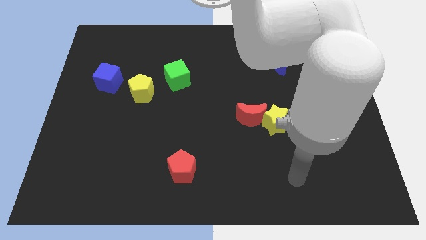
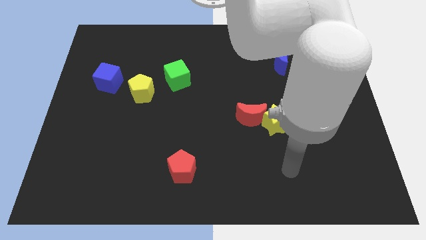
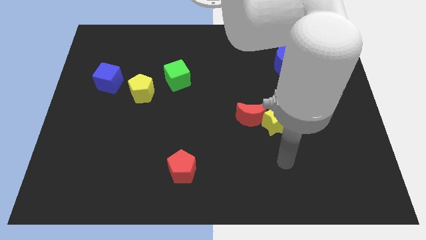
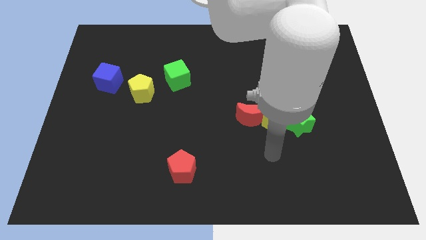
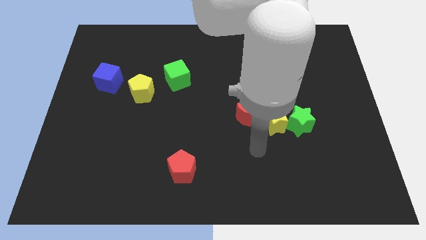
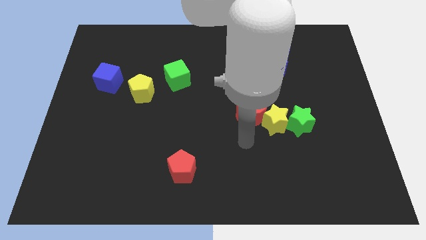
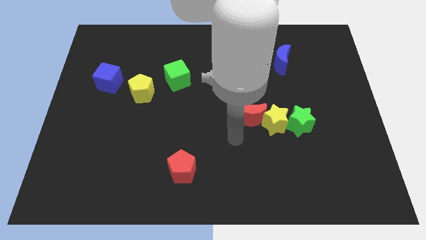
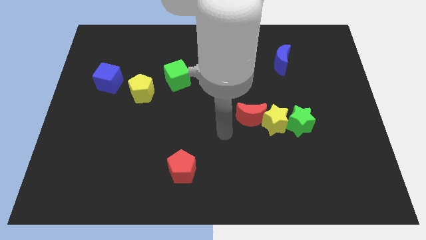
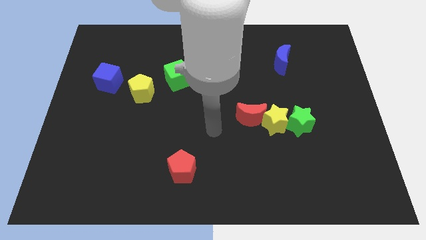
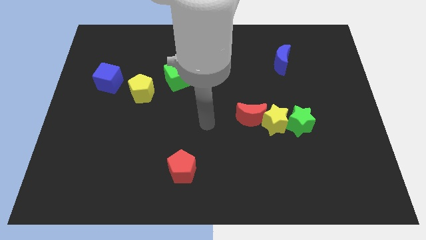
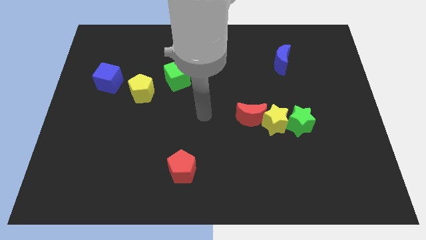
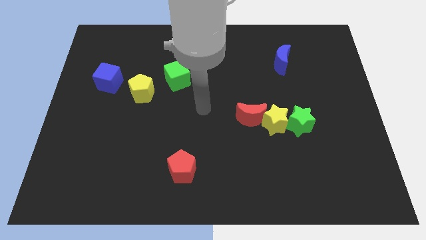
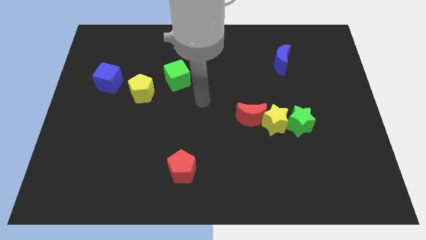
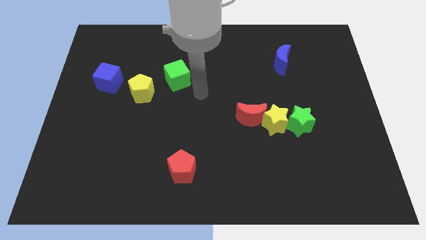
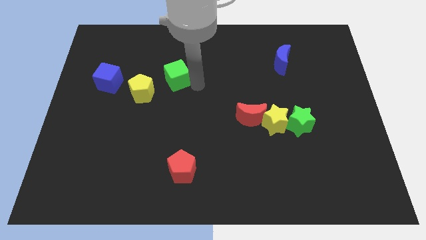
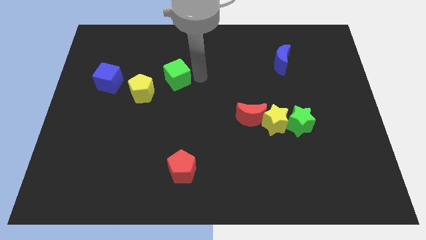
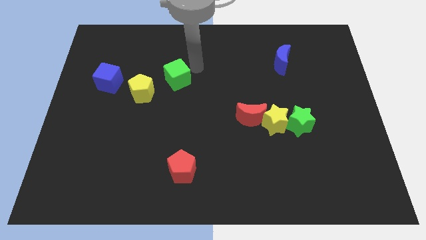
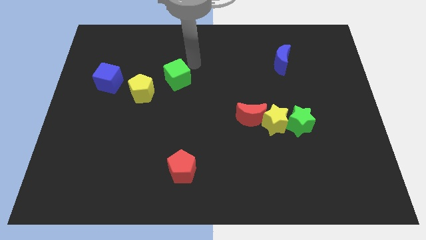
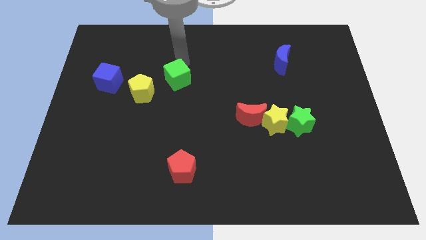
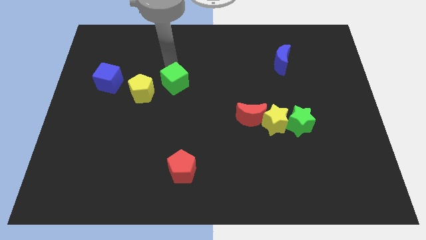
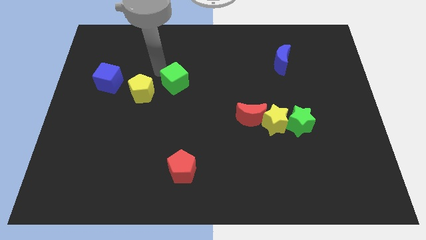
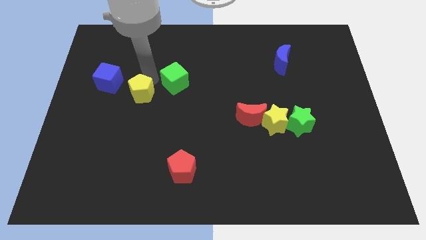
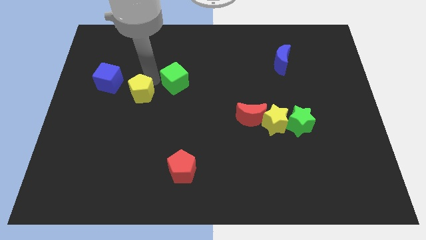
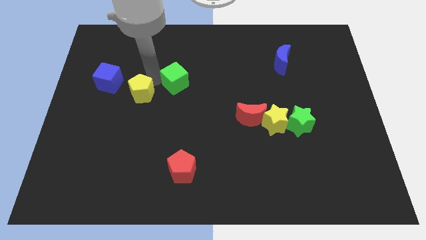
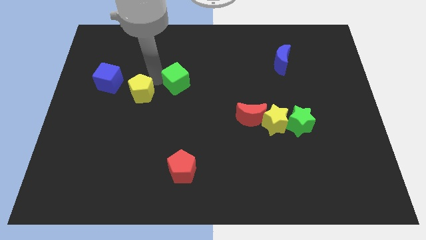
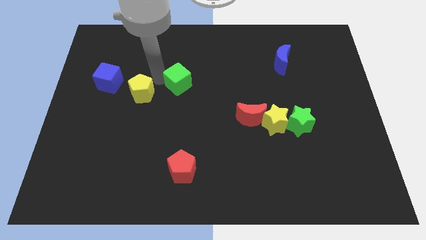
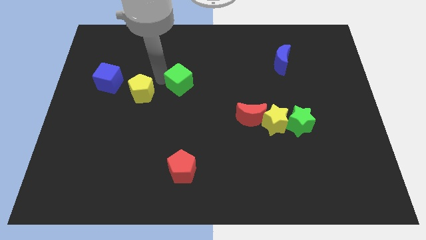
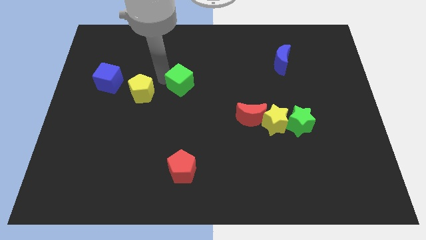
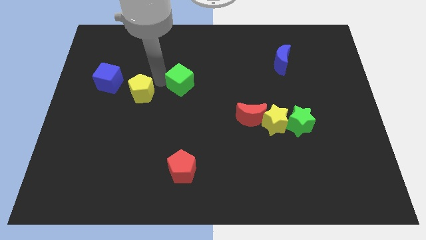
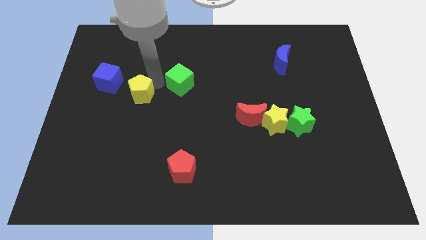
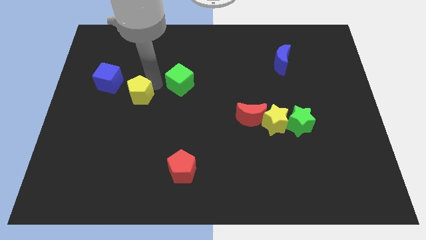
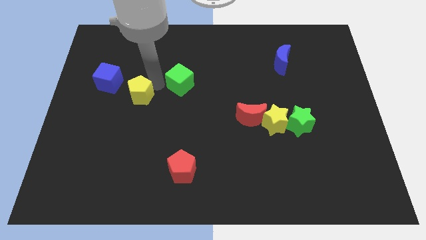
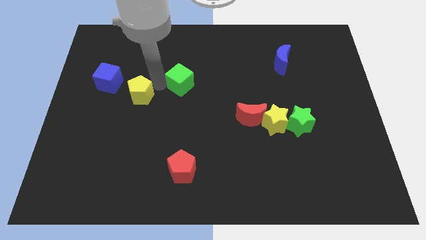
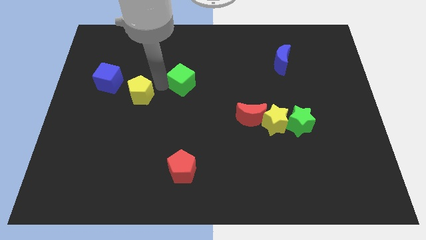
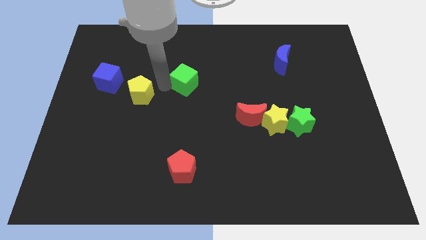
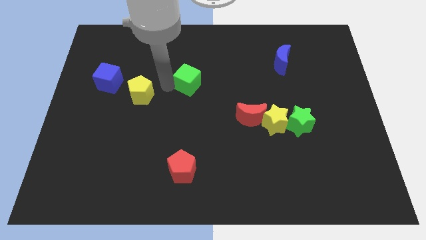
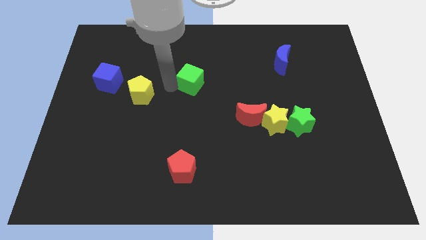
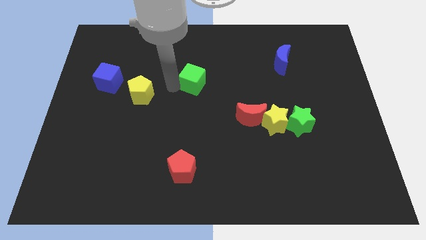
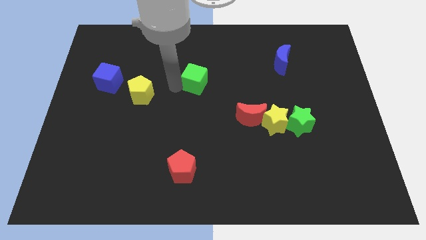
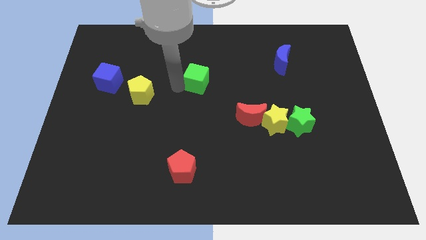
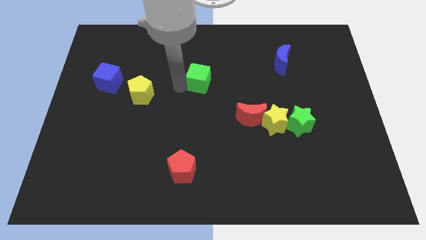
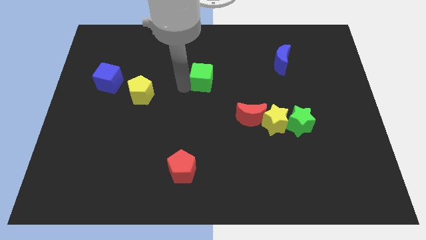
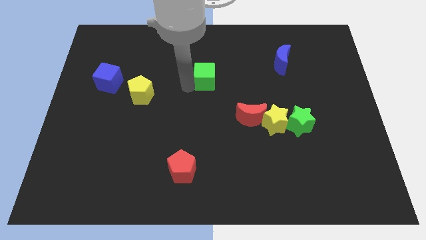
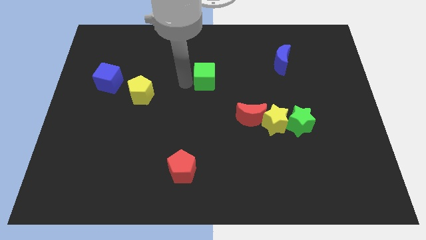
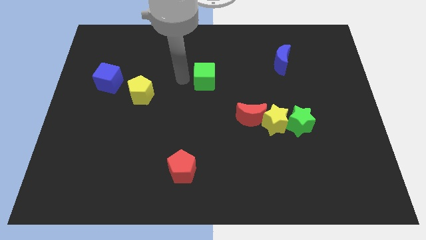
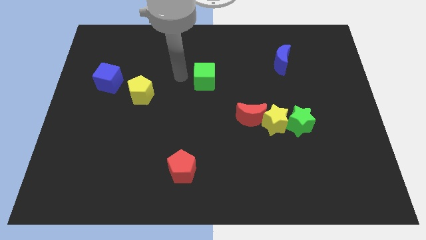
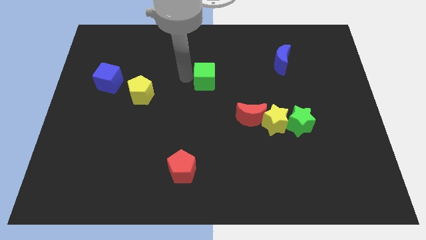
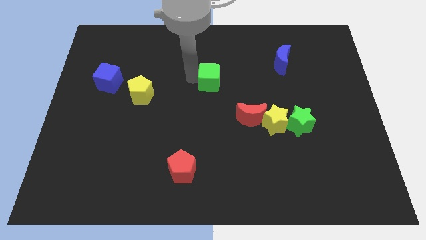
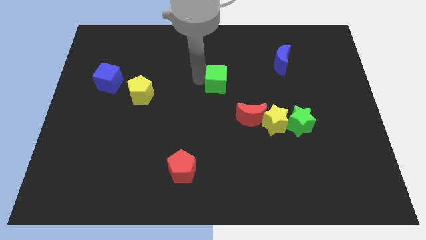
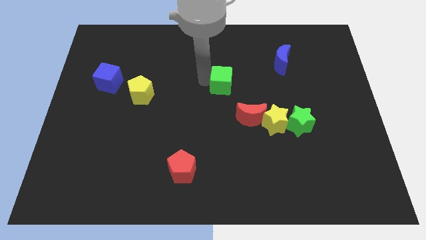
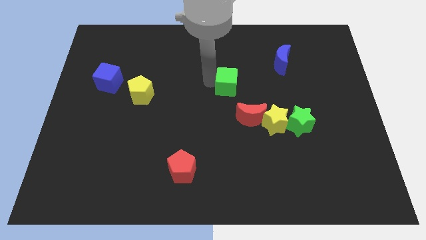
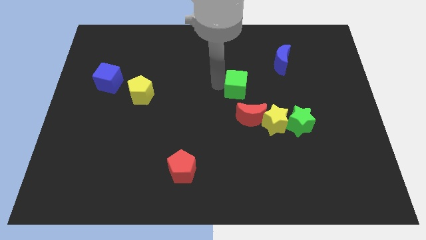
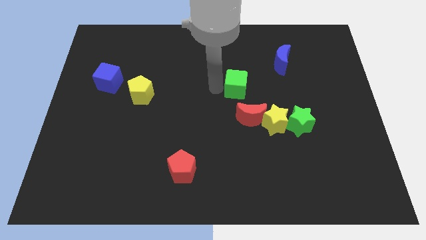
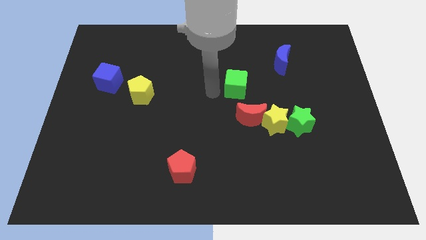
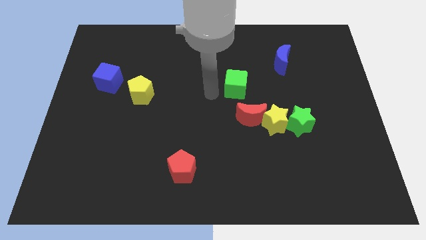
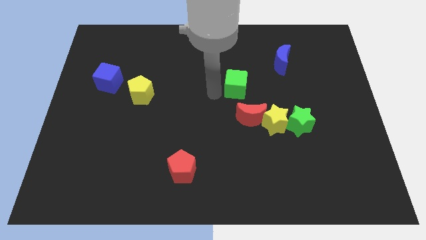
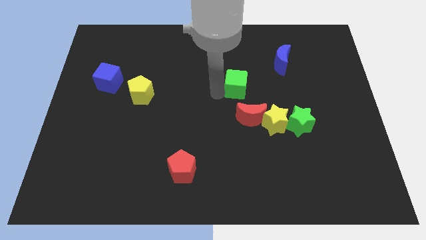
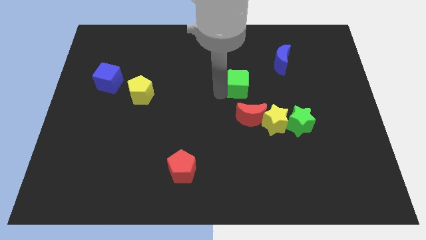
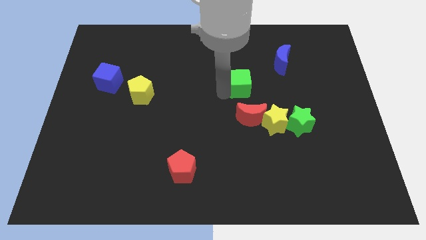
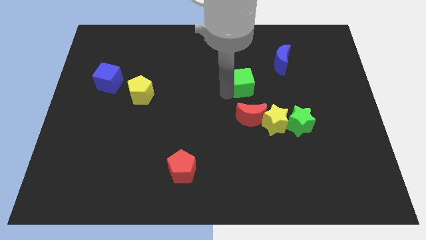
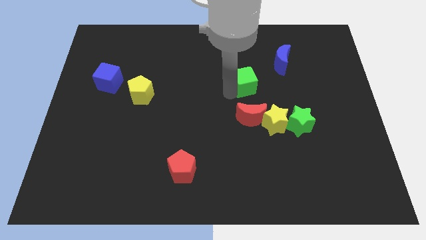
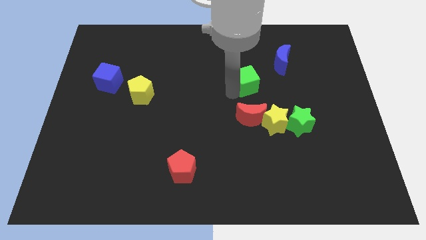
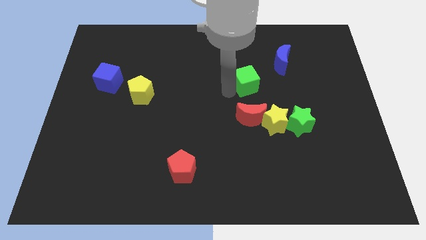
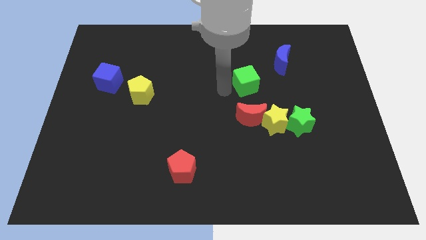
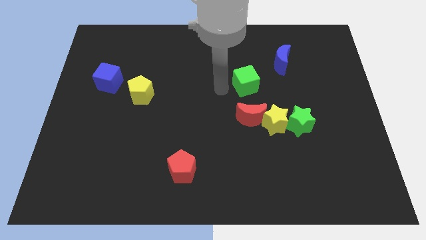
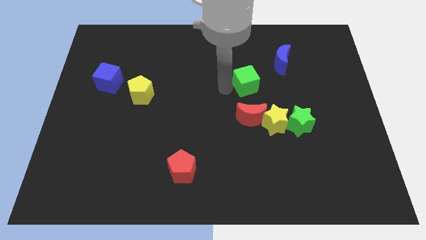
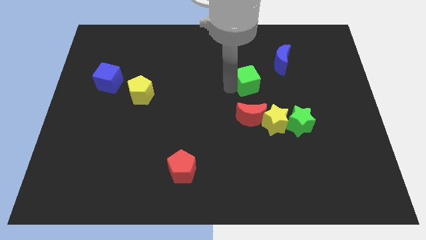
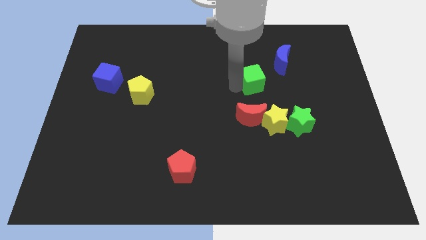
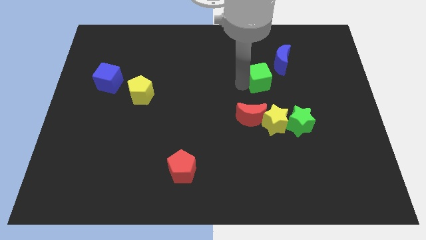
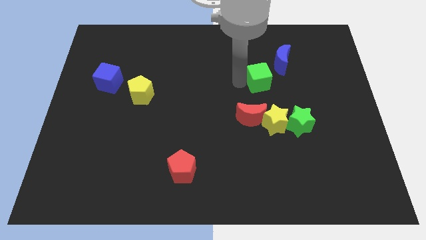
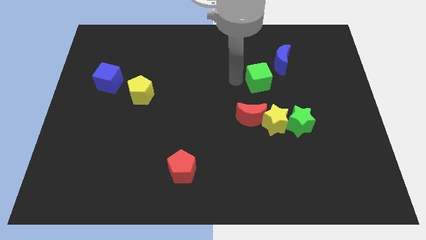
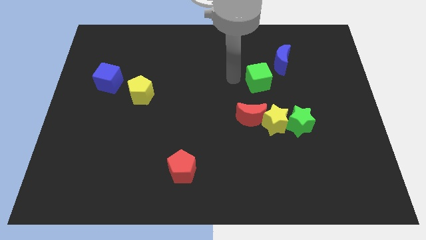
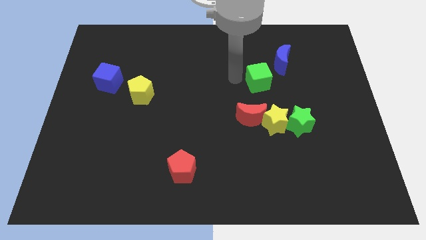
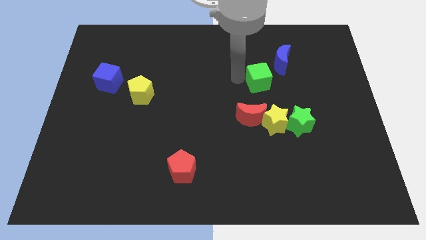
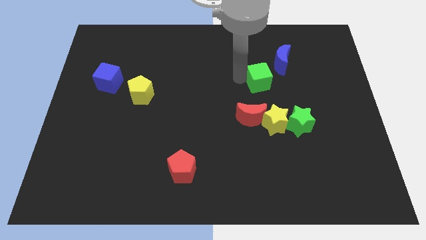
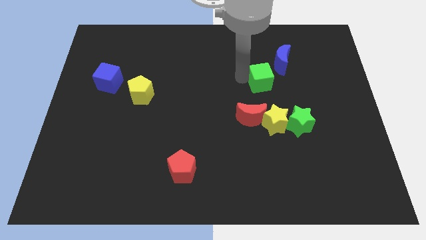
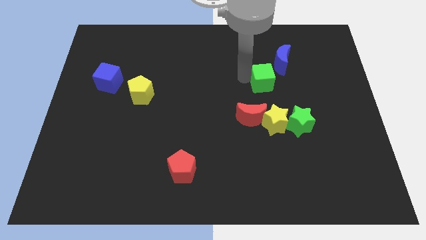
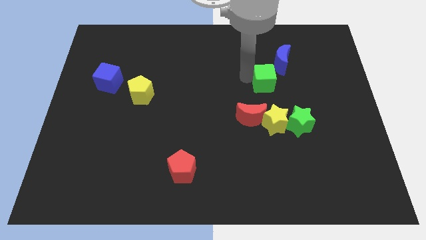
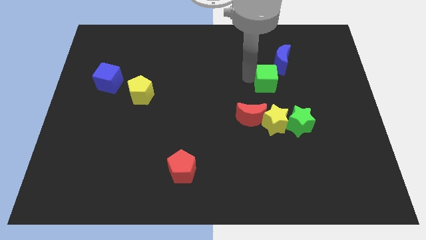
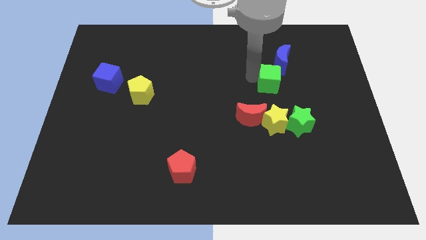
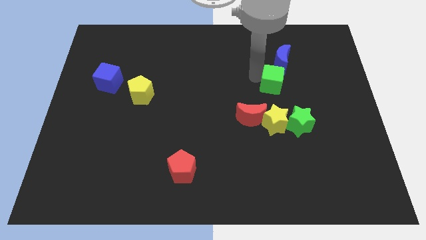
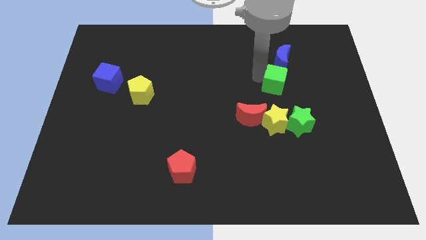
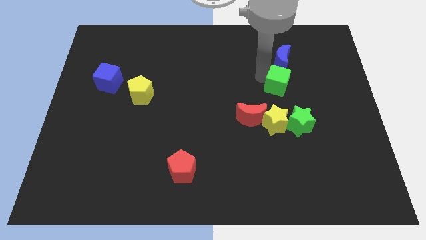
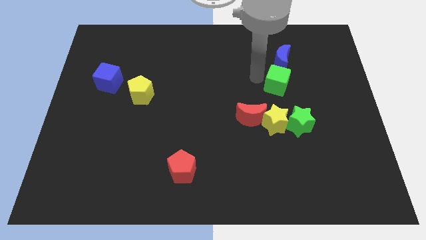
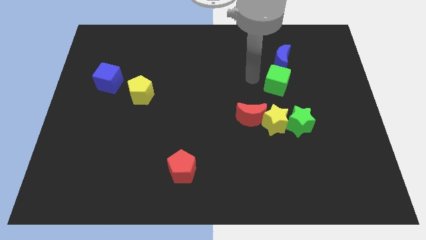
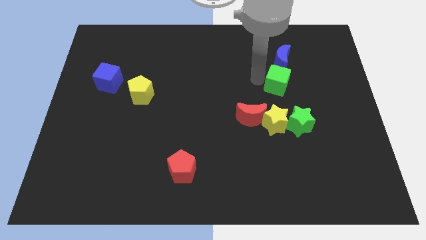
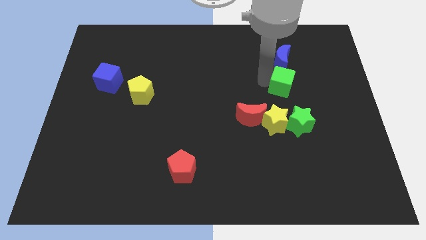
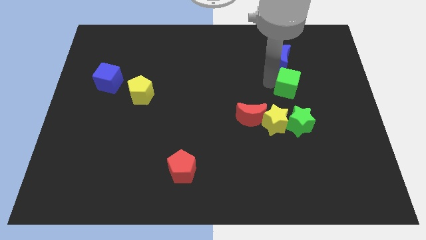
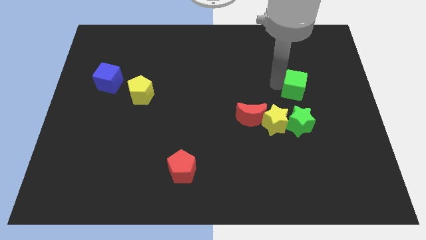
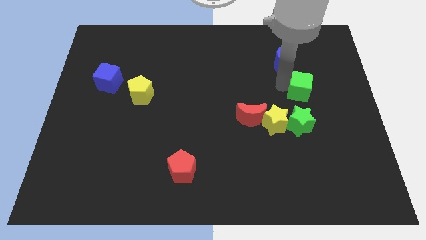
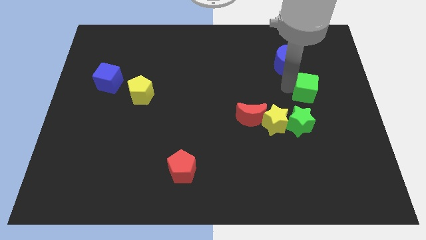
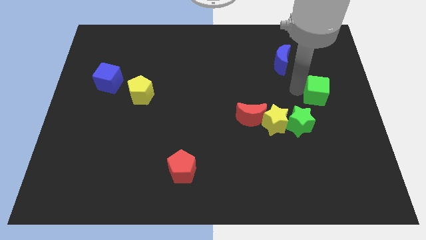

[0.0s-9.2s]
push the green cube to the right side
